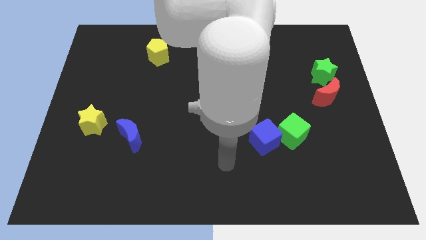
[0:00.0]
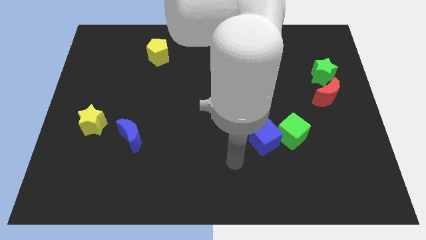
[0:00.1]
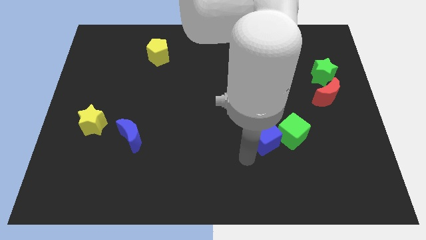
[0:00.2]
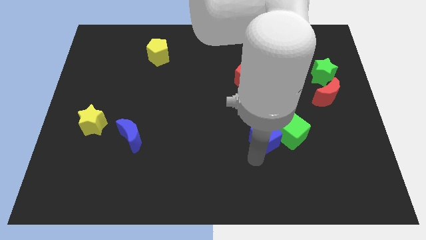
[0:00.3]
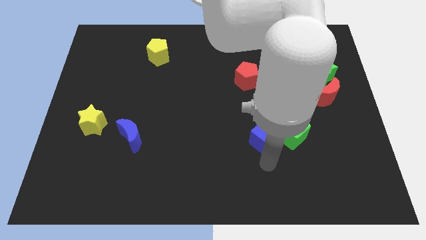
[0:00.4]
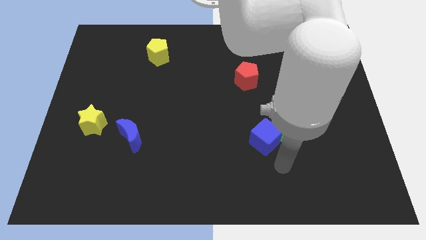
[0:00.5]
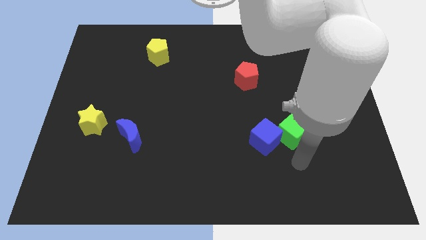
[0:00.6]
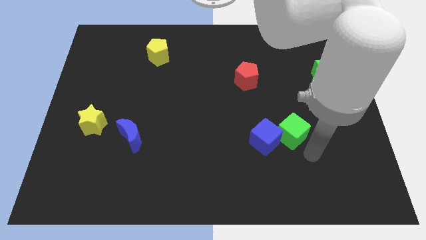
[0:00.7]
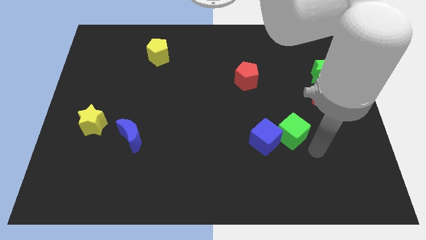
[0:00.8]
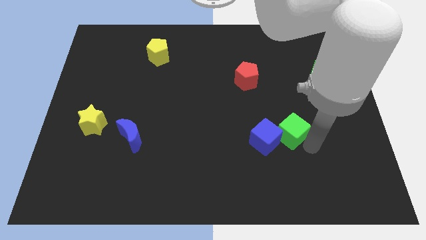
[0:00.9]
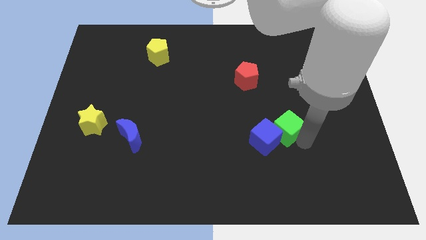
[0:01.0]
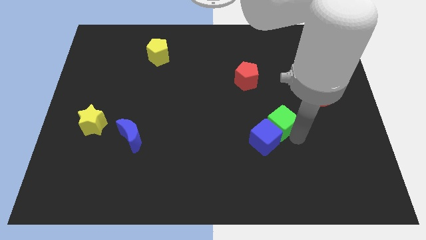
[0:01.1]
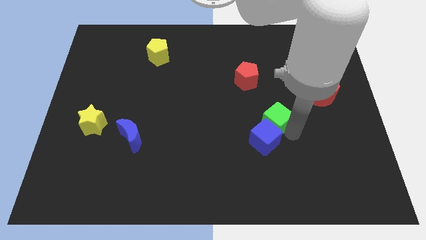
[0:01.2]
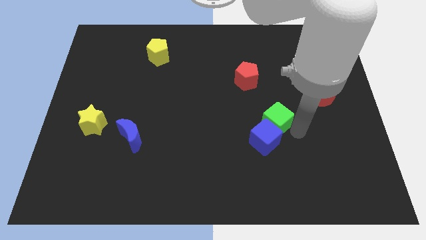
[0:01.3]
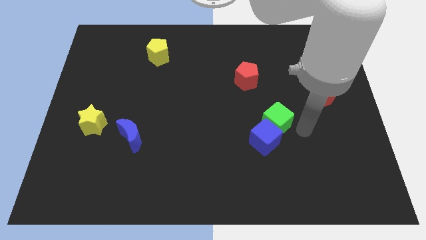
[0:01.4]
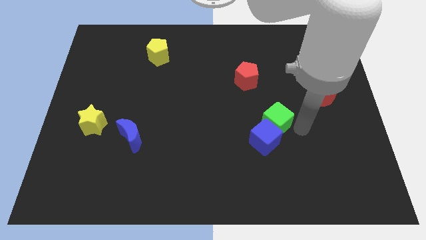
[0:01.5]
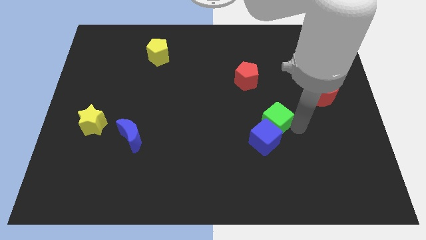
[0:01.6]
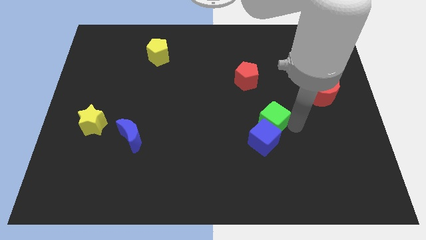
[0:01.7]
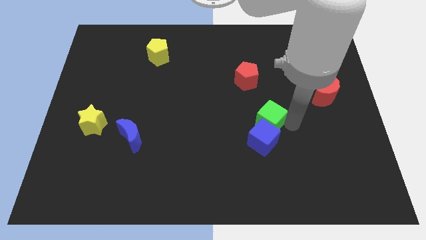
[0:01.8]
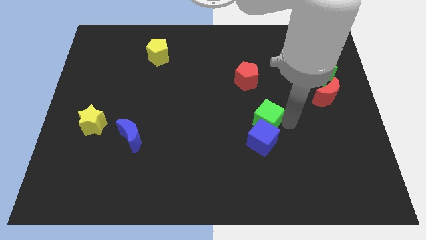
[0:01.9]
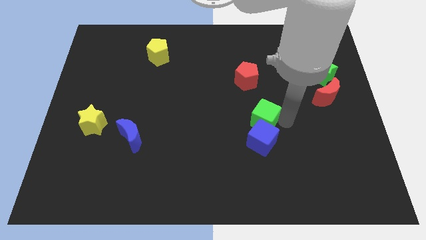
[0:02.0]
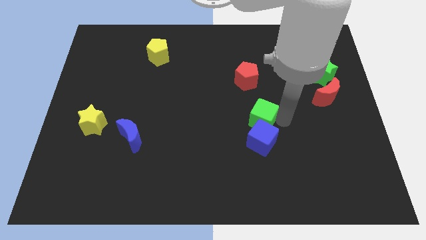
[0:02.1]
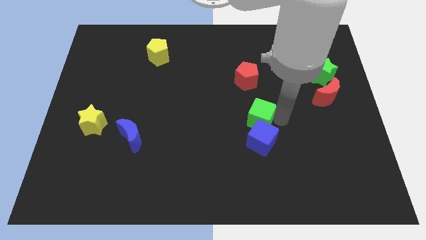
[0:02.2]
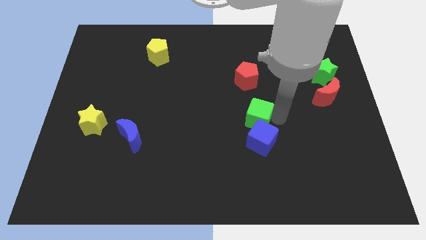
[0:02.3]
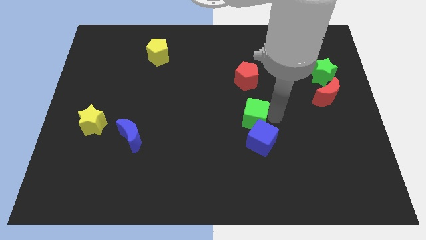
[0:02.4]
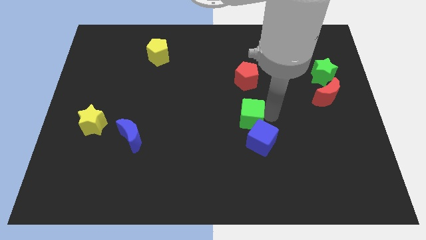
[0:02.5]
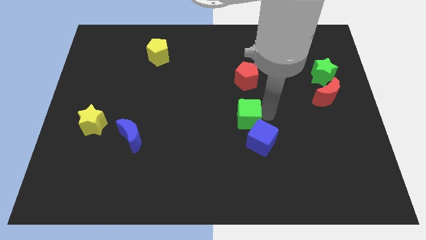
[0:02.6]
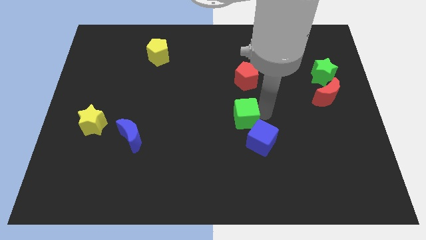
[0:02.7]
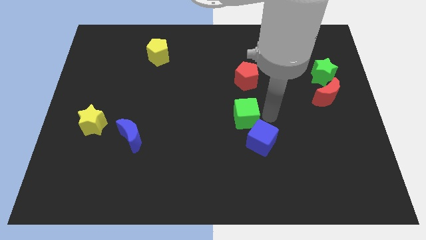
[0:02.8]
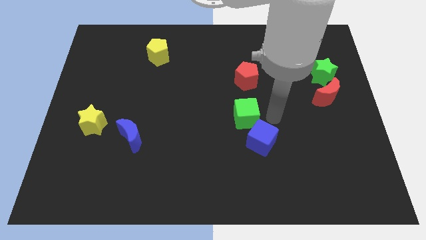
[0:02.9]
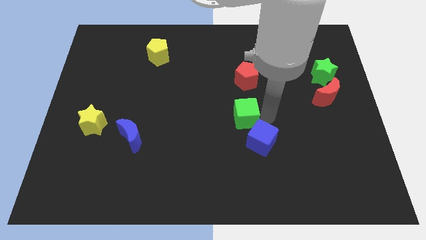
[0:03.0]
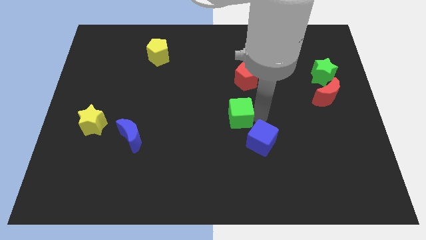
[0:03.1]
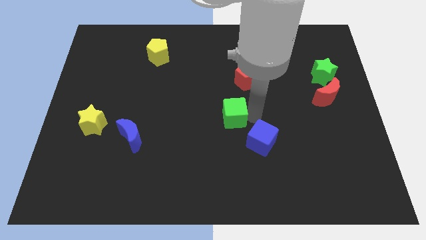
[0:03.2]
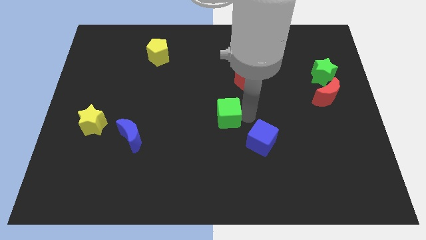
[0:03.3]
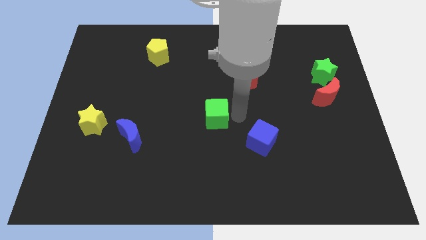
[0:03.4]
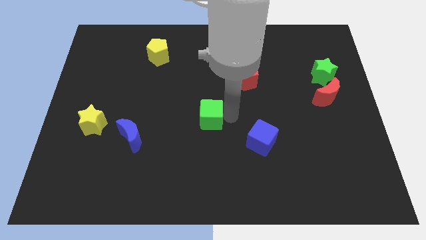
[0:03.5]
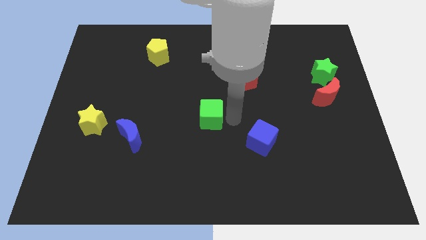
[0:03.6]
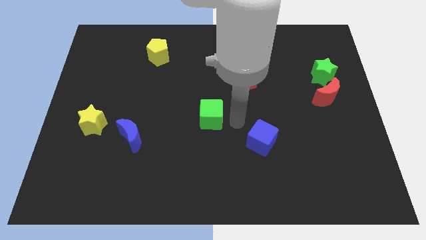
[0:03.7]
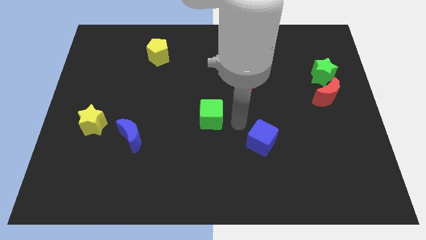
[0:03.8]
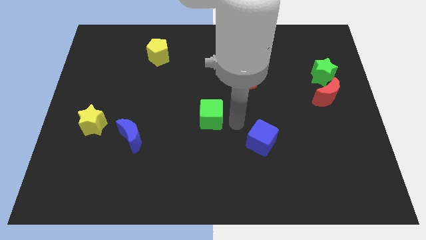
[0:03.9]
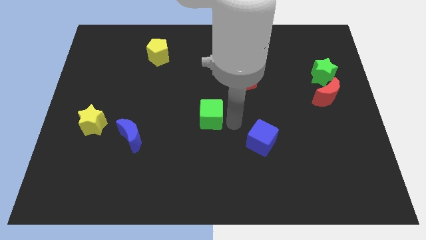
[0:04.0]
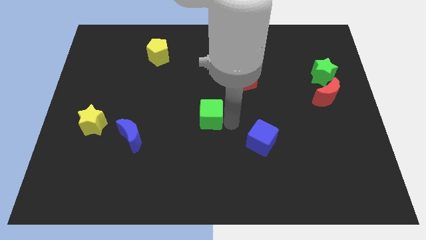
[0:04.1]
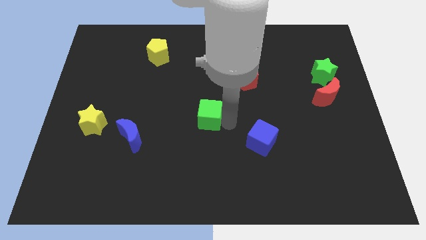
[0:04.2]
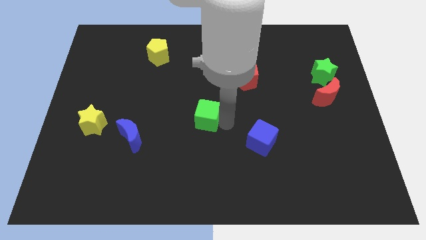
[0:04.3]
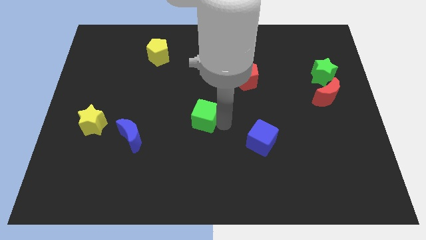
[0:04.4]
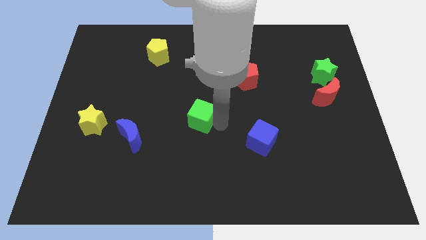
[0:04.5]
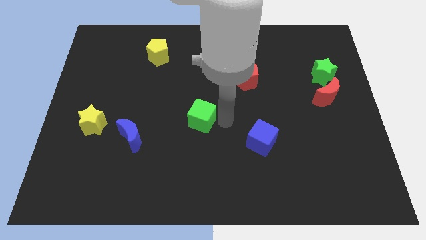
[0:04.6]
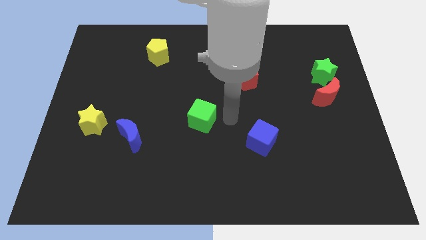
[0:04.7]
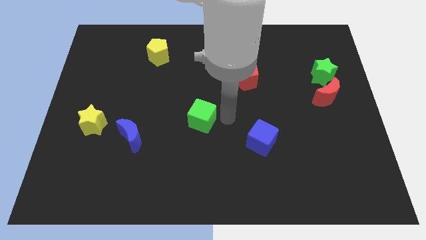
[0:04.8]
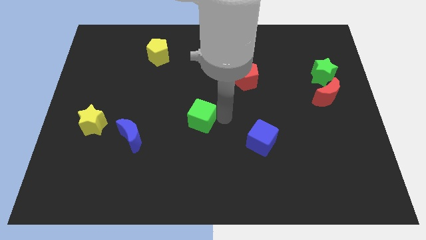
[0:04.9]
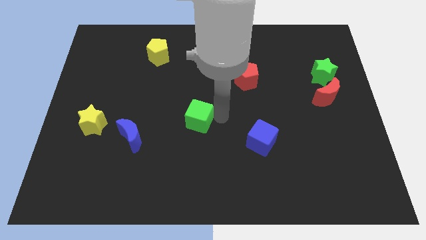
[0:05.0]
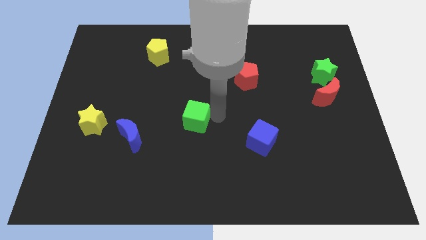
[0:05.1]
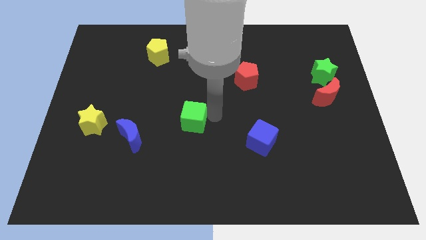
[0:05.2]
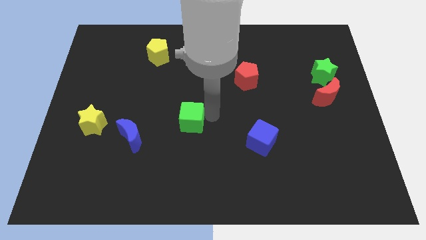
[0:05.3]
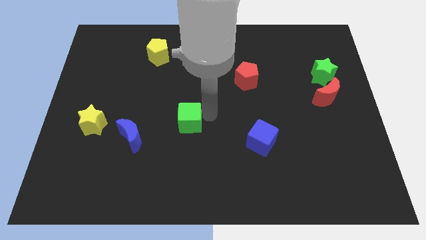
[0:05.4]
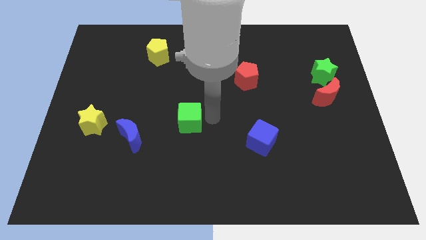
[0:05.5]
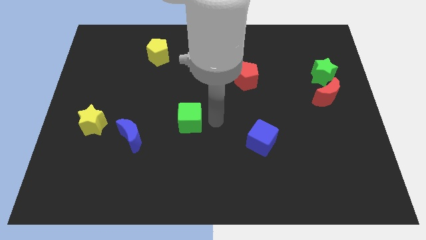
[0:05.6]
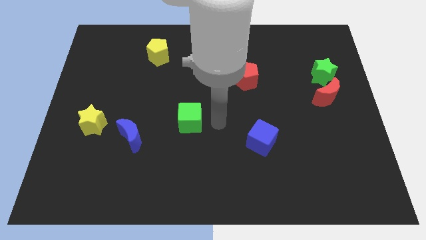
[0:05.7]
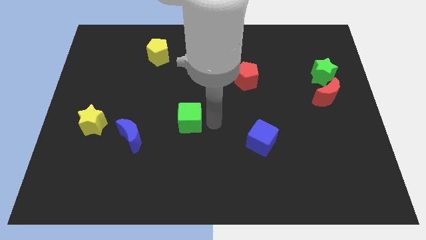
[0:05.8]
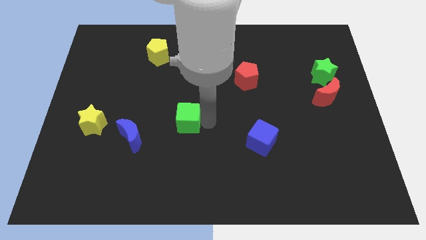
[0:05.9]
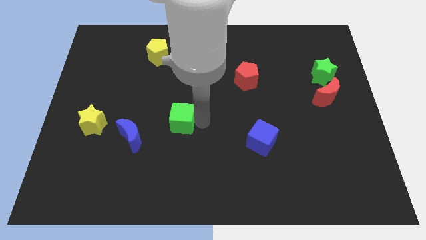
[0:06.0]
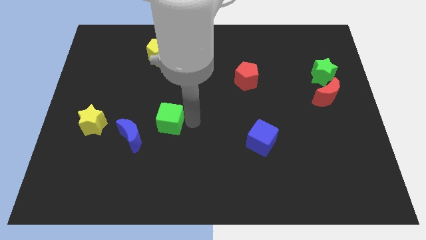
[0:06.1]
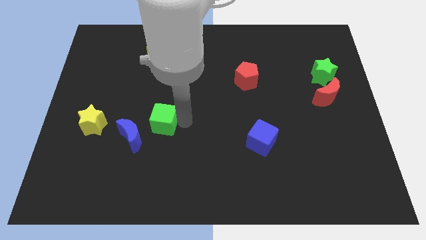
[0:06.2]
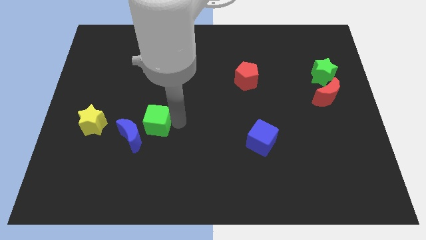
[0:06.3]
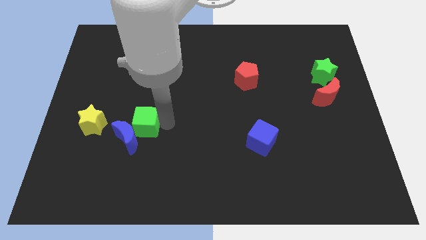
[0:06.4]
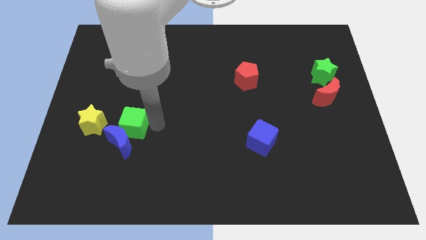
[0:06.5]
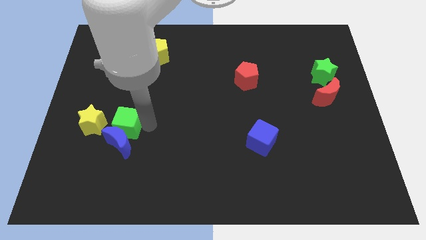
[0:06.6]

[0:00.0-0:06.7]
push the green cube diagonally up and to the left of the blue moon

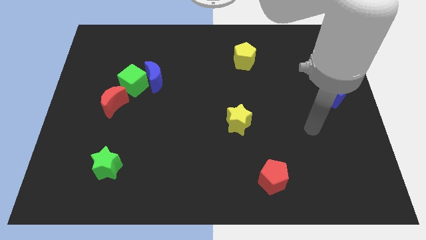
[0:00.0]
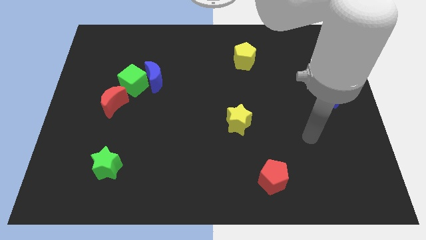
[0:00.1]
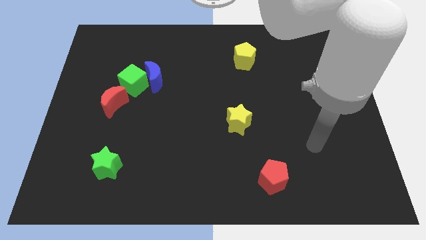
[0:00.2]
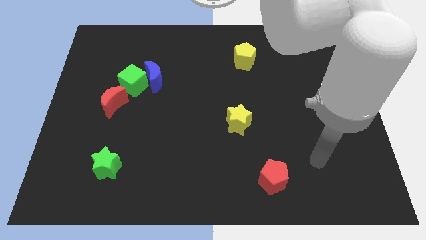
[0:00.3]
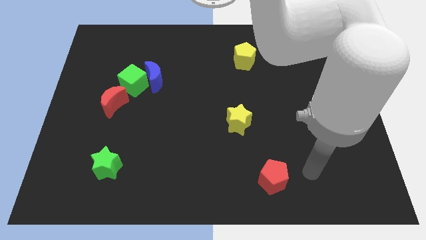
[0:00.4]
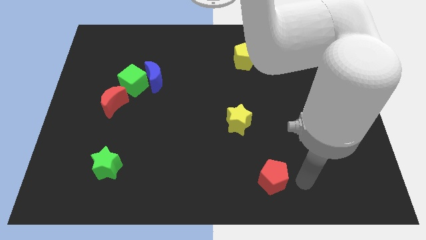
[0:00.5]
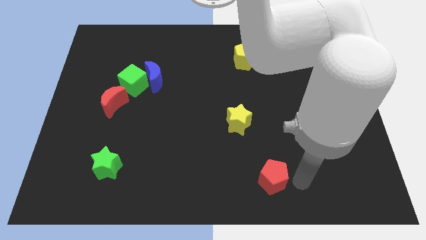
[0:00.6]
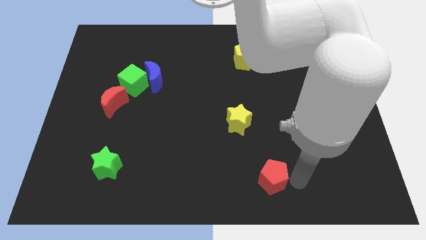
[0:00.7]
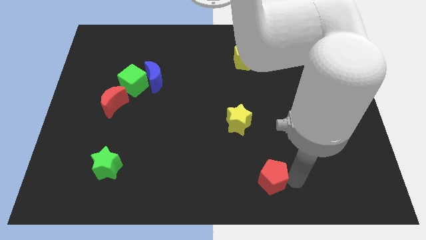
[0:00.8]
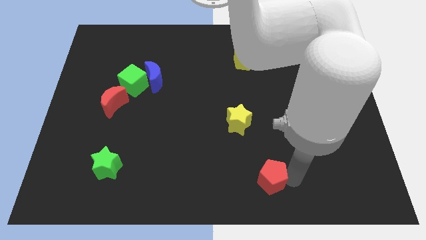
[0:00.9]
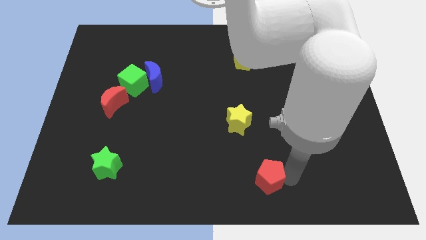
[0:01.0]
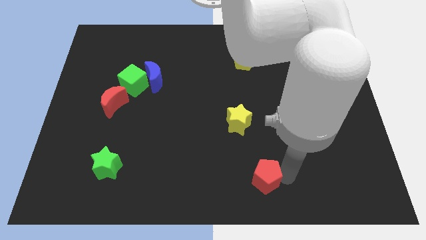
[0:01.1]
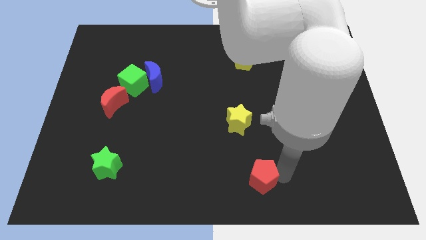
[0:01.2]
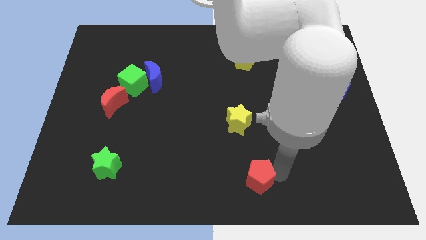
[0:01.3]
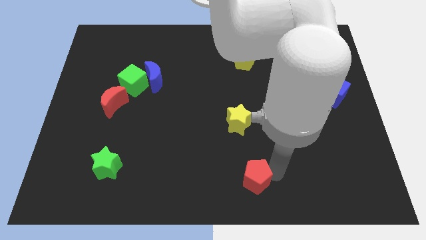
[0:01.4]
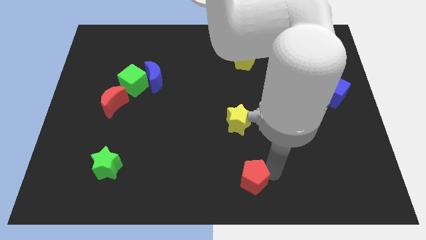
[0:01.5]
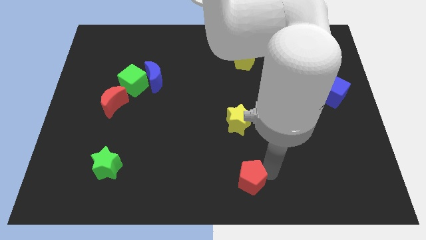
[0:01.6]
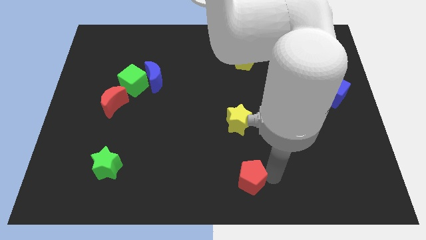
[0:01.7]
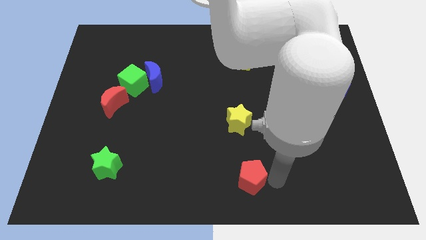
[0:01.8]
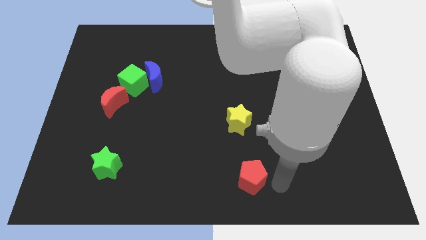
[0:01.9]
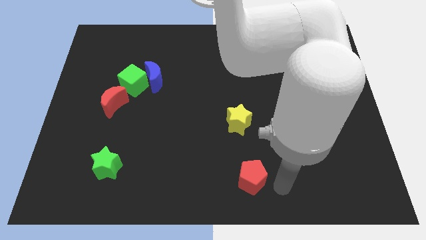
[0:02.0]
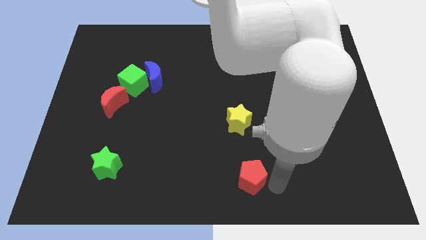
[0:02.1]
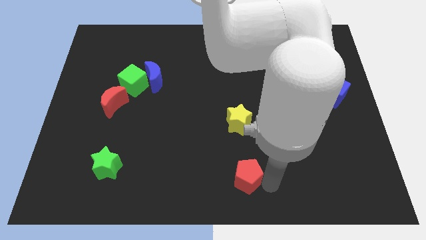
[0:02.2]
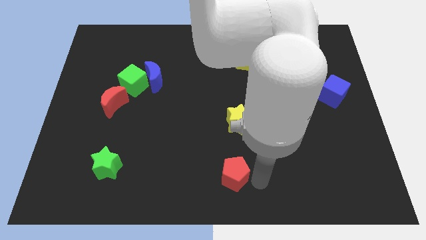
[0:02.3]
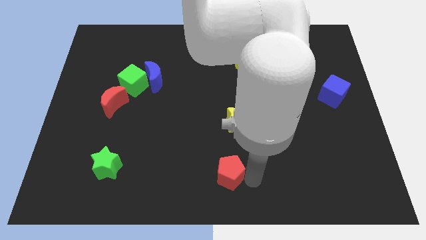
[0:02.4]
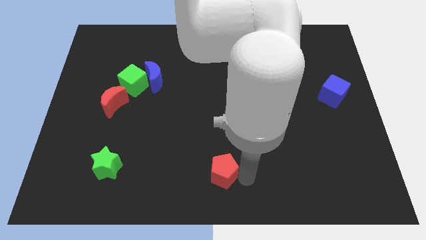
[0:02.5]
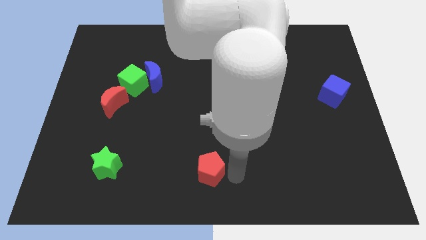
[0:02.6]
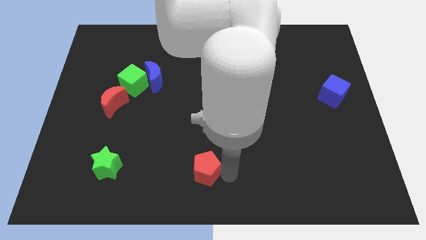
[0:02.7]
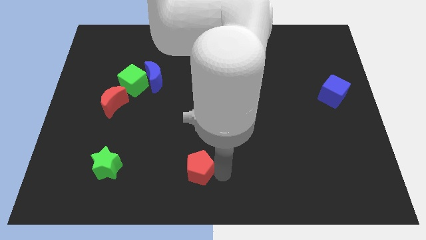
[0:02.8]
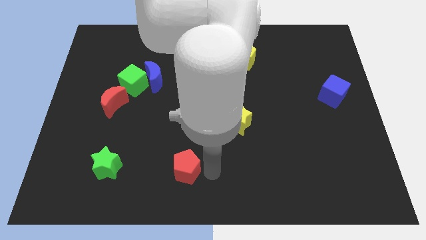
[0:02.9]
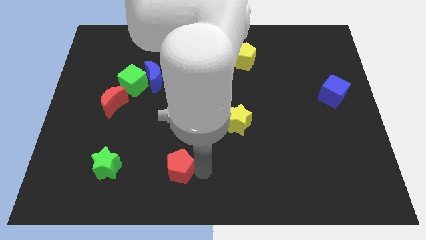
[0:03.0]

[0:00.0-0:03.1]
move the red pentagon right of the green star
